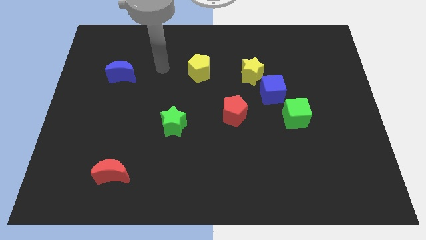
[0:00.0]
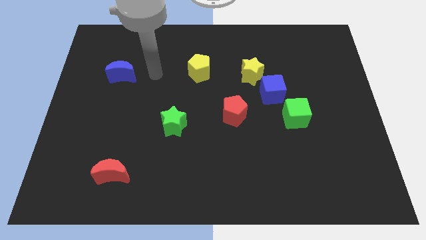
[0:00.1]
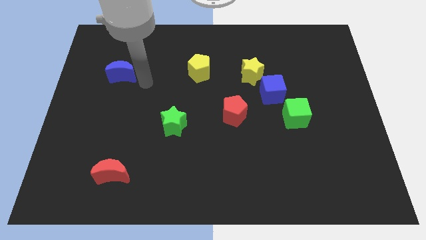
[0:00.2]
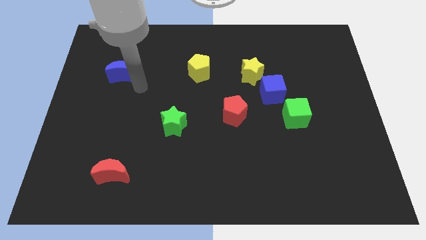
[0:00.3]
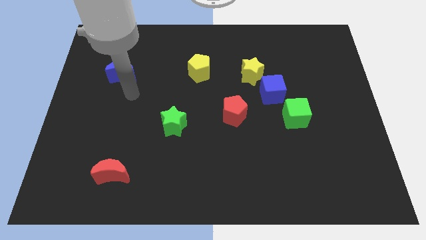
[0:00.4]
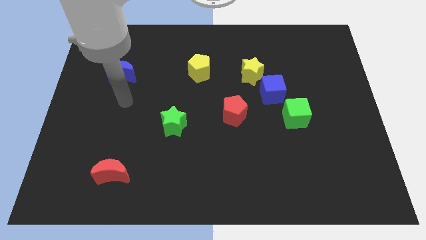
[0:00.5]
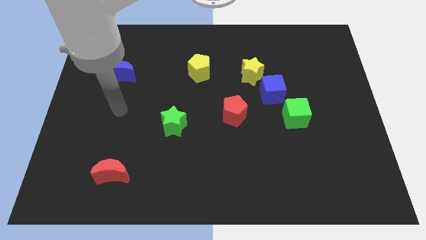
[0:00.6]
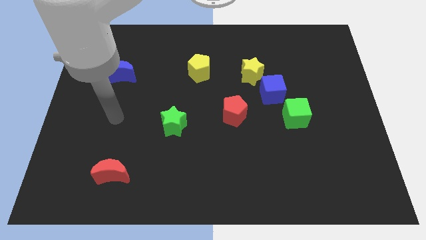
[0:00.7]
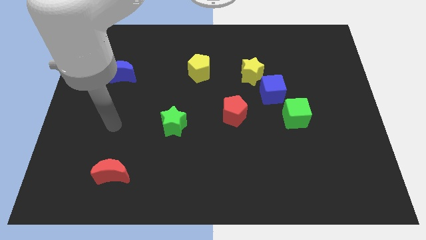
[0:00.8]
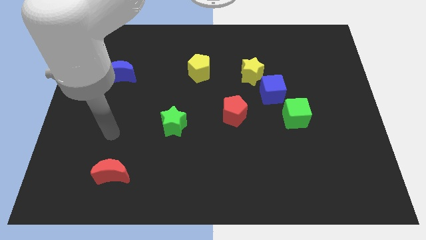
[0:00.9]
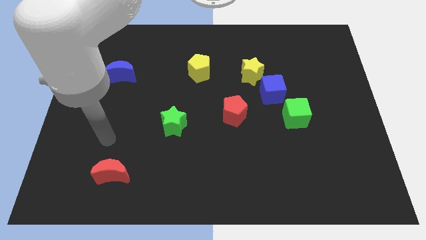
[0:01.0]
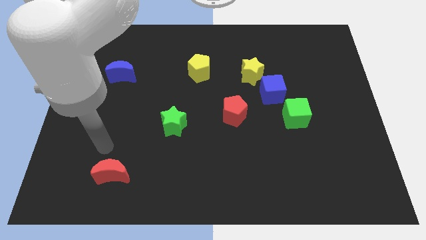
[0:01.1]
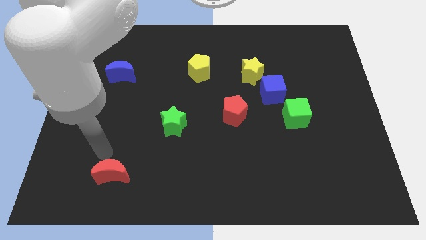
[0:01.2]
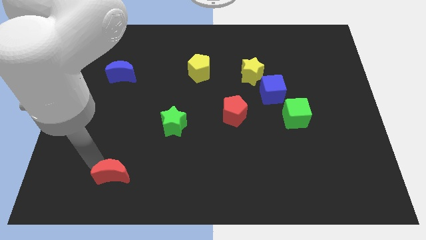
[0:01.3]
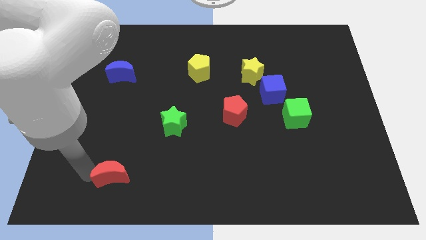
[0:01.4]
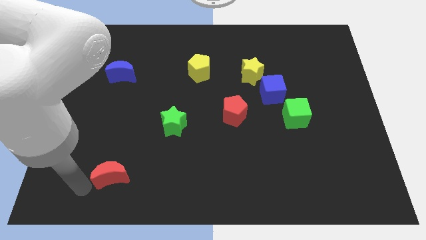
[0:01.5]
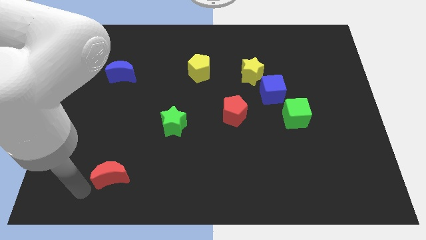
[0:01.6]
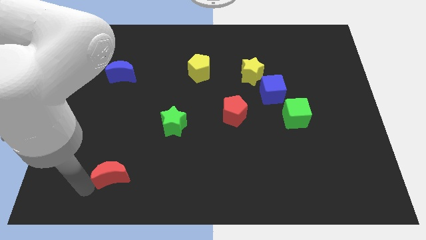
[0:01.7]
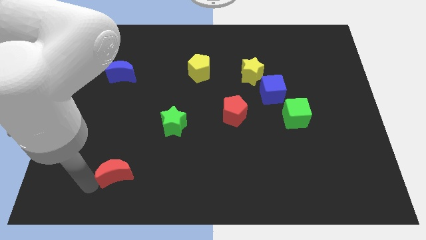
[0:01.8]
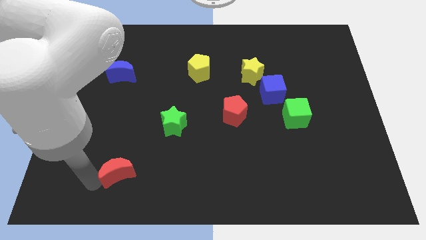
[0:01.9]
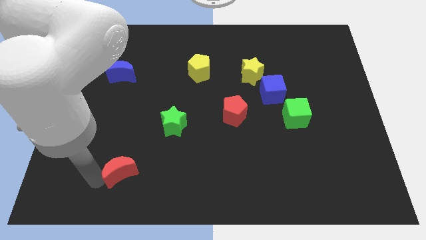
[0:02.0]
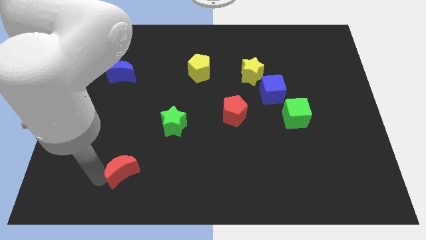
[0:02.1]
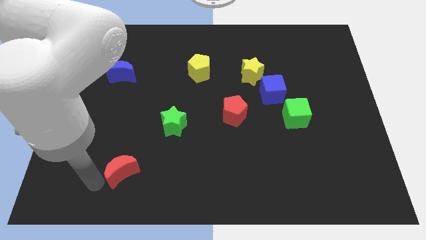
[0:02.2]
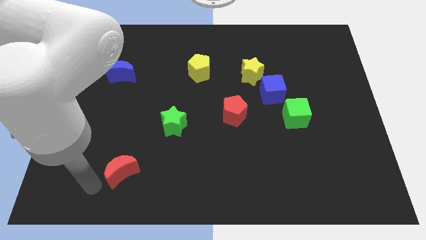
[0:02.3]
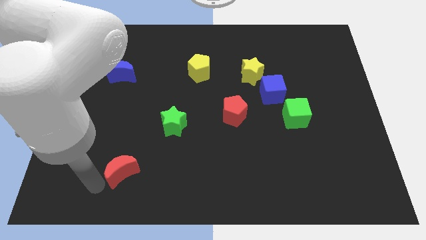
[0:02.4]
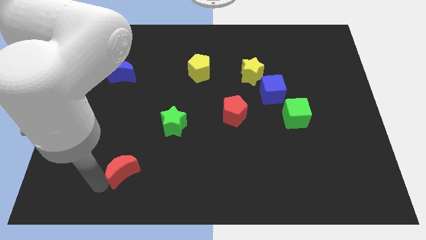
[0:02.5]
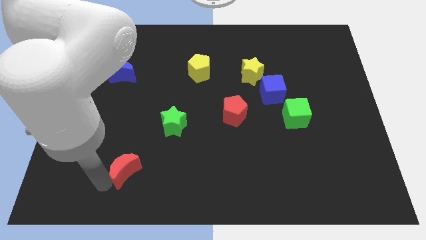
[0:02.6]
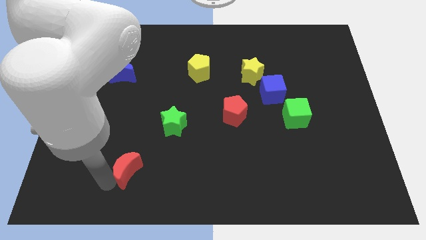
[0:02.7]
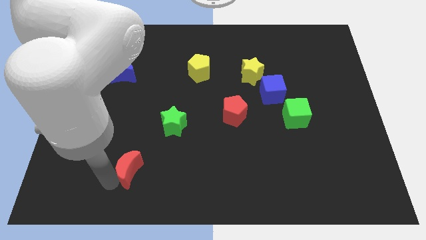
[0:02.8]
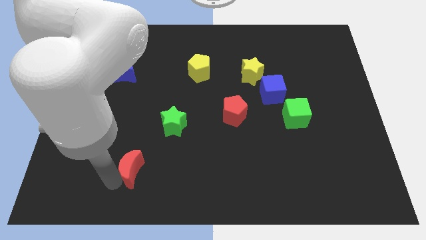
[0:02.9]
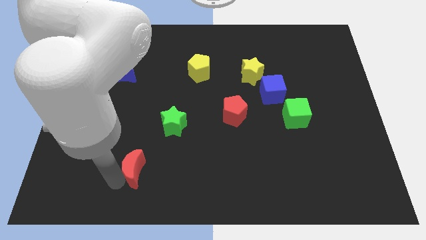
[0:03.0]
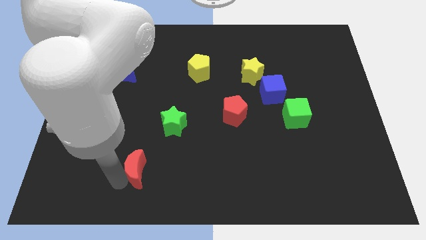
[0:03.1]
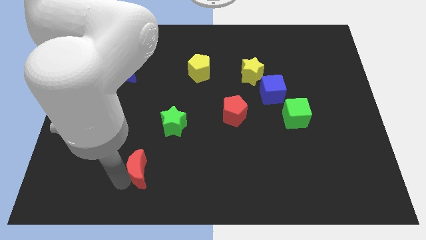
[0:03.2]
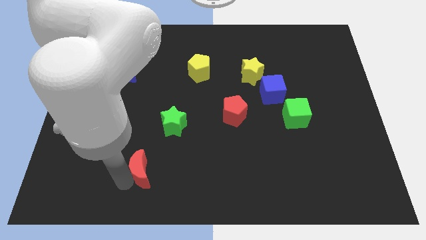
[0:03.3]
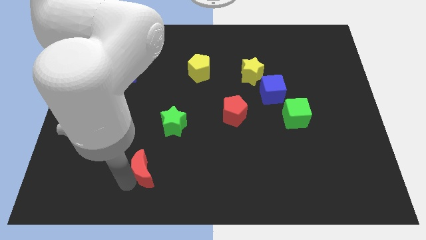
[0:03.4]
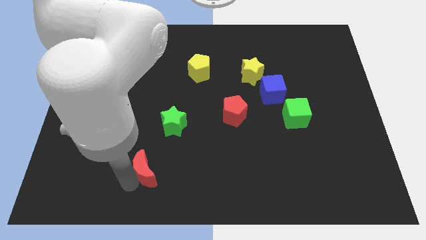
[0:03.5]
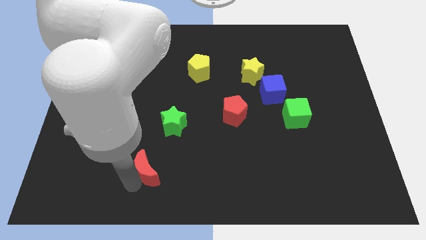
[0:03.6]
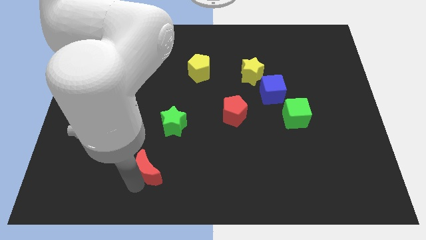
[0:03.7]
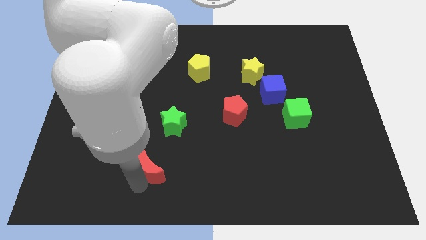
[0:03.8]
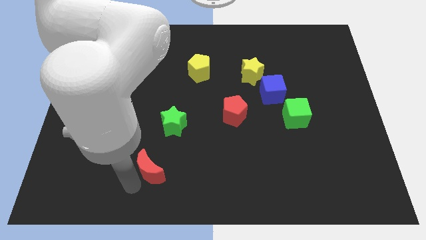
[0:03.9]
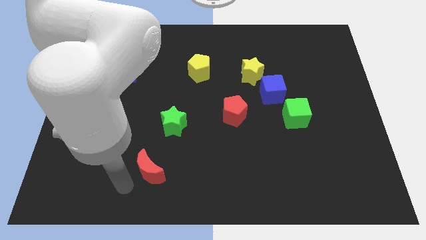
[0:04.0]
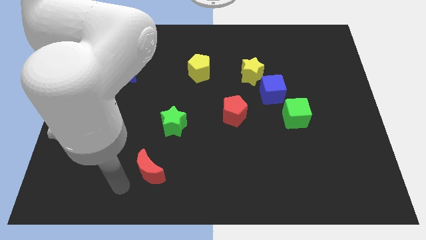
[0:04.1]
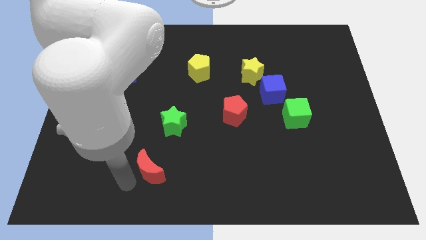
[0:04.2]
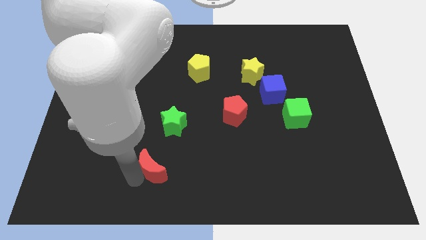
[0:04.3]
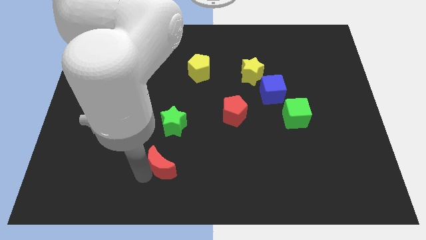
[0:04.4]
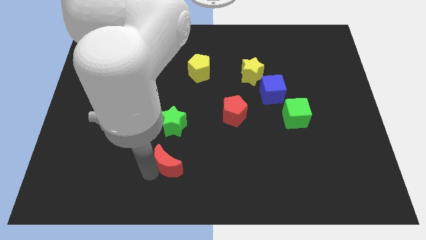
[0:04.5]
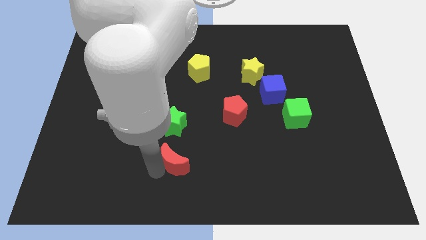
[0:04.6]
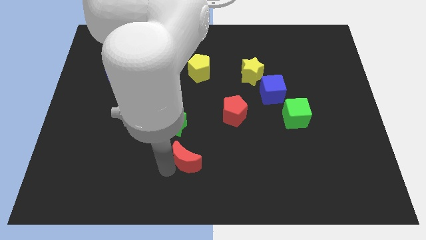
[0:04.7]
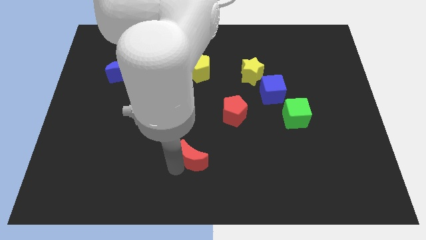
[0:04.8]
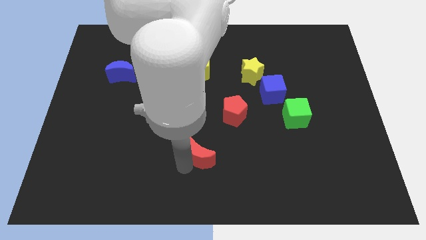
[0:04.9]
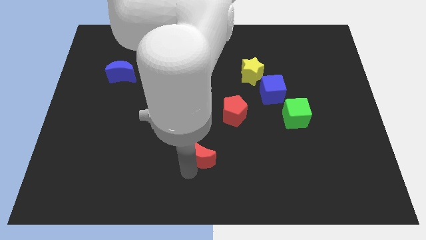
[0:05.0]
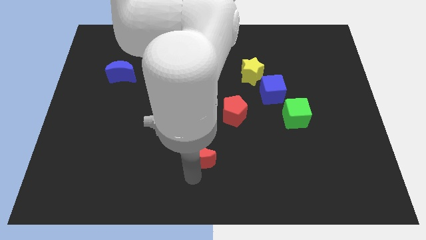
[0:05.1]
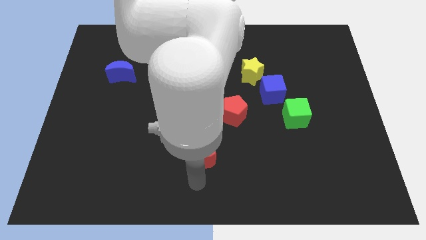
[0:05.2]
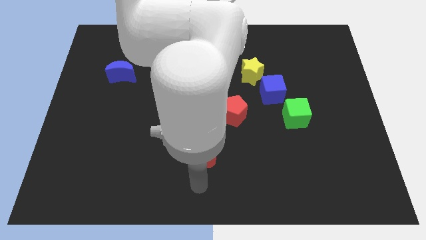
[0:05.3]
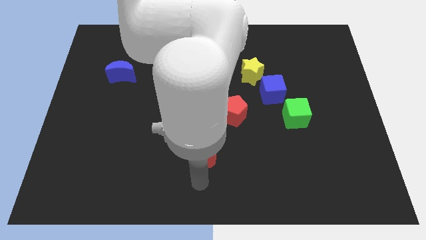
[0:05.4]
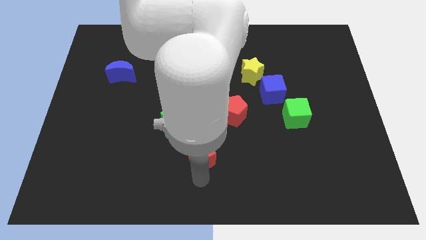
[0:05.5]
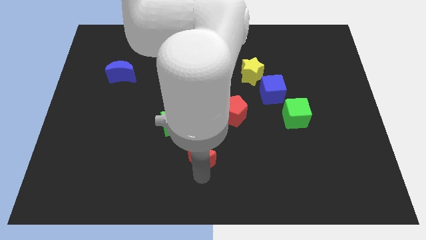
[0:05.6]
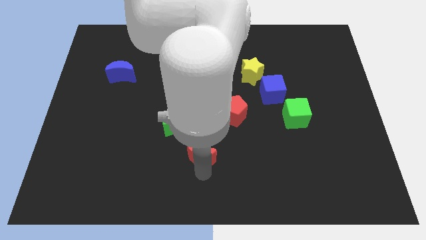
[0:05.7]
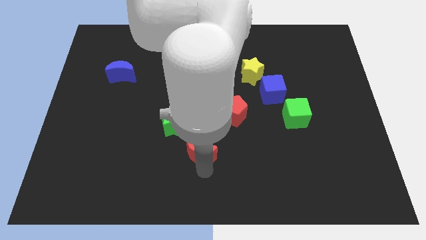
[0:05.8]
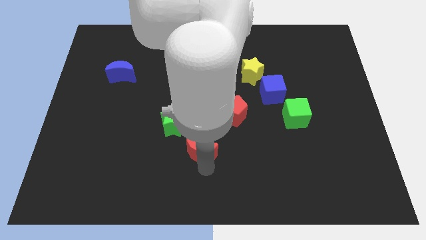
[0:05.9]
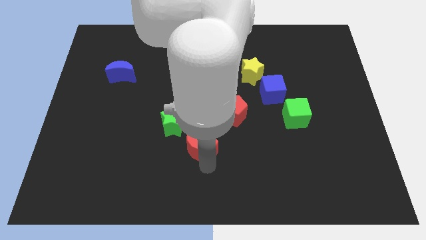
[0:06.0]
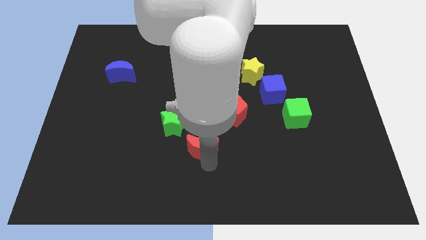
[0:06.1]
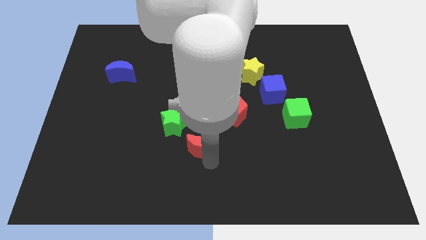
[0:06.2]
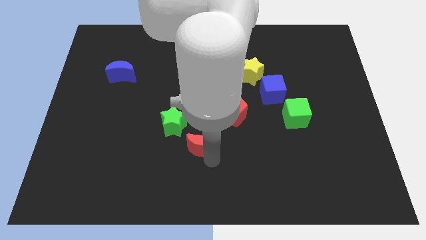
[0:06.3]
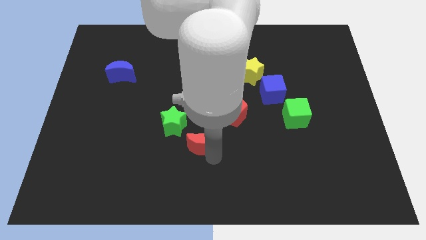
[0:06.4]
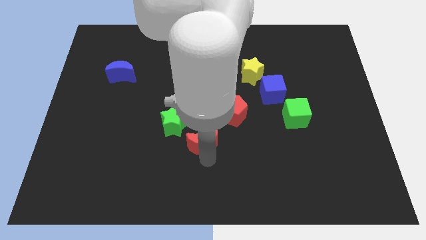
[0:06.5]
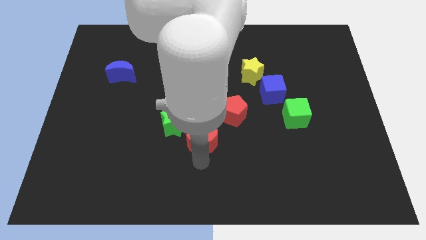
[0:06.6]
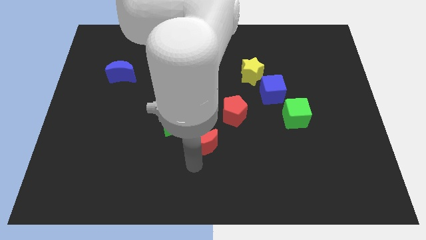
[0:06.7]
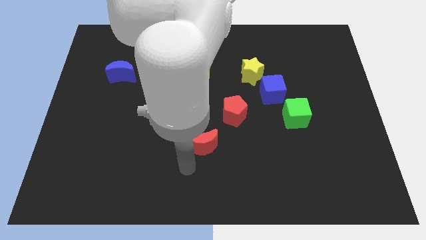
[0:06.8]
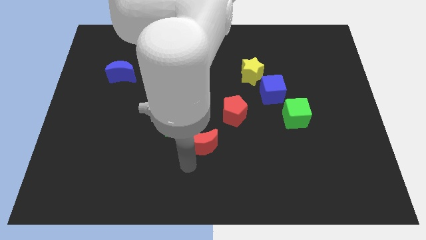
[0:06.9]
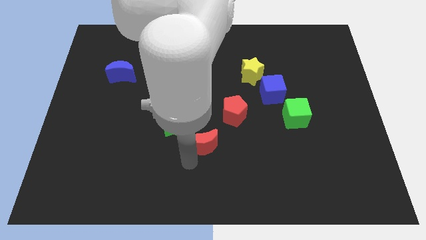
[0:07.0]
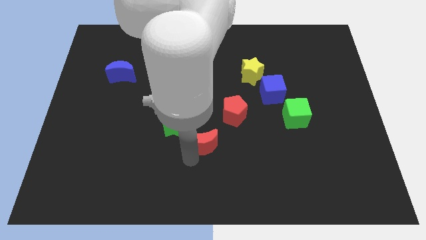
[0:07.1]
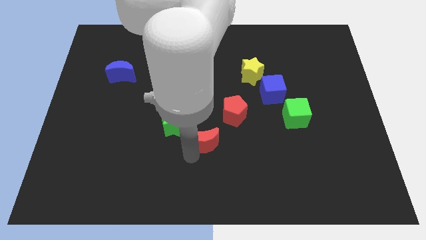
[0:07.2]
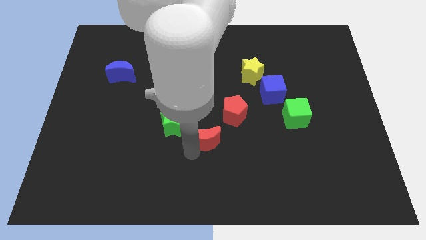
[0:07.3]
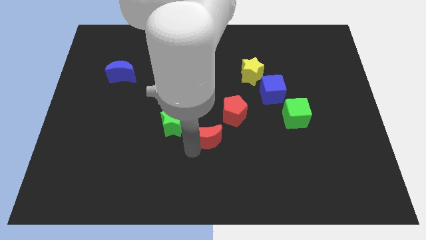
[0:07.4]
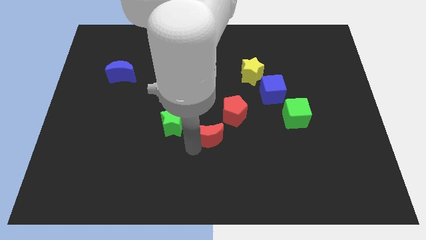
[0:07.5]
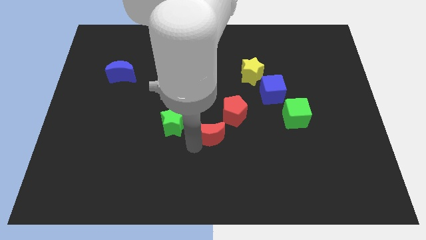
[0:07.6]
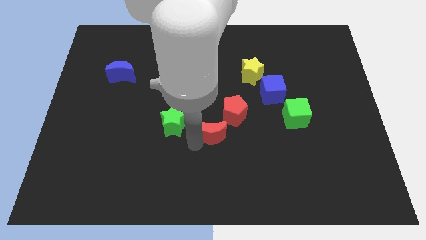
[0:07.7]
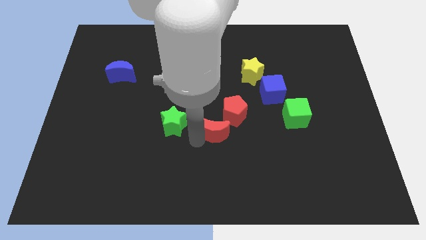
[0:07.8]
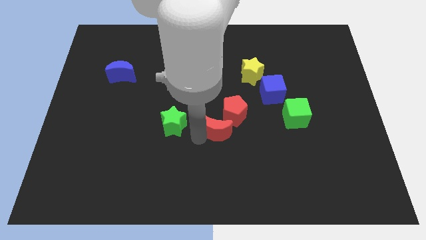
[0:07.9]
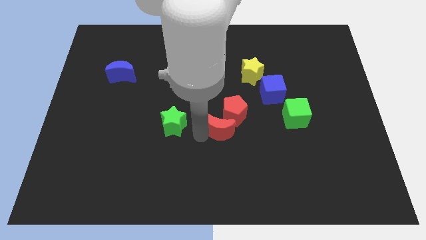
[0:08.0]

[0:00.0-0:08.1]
move the red moon to the red pentagon
